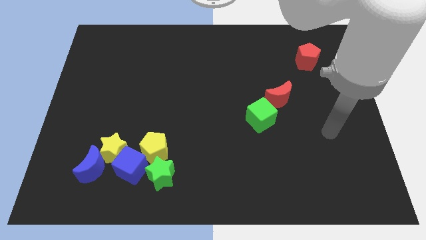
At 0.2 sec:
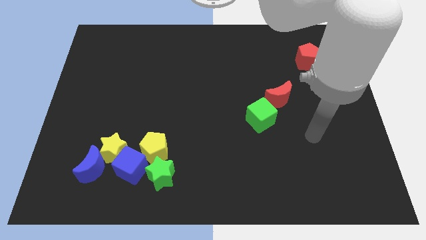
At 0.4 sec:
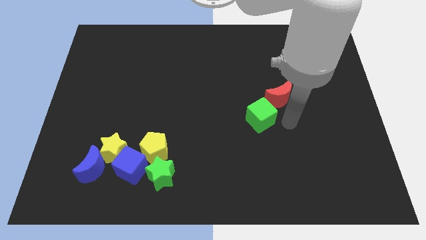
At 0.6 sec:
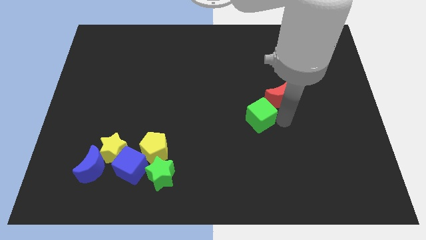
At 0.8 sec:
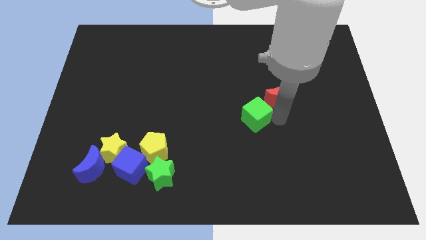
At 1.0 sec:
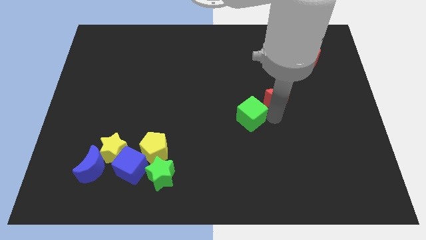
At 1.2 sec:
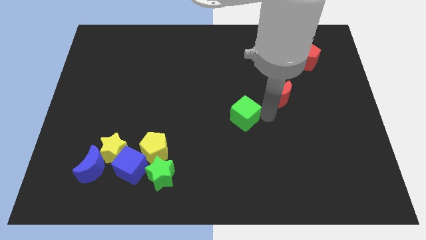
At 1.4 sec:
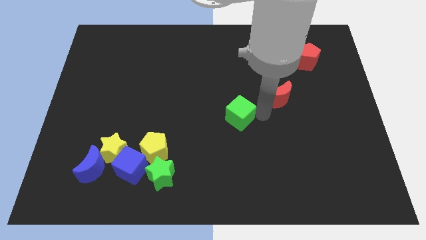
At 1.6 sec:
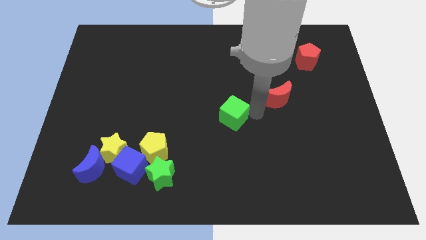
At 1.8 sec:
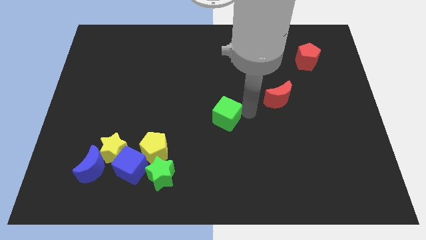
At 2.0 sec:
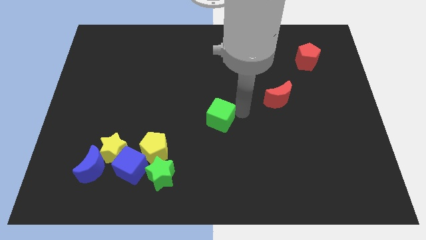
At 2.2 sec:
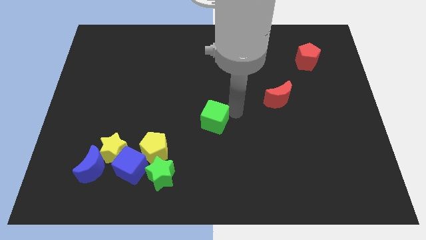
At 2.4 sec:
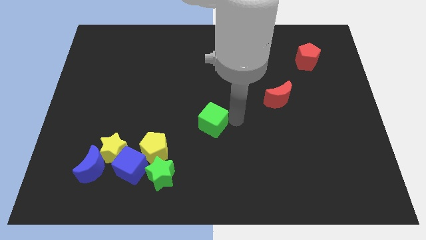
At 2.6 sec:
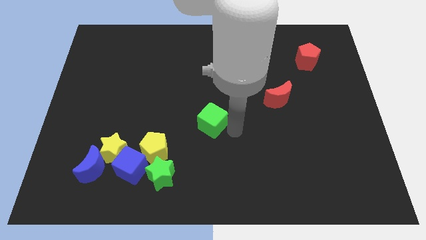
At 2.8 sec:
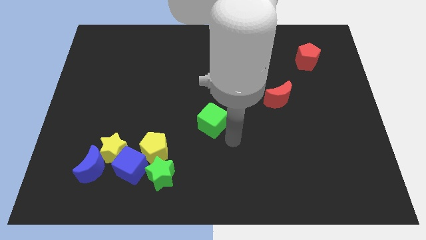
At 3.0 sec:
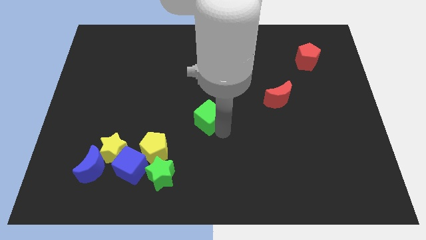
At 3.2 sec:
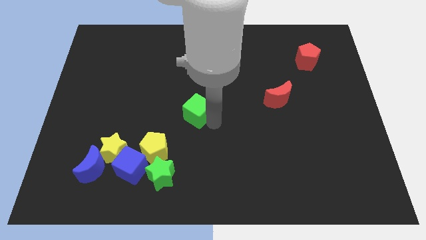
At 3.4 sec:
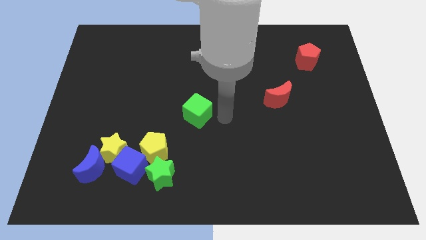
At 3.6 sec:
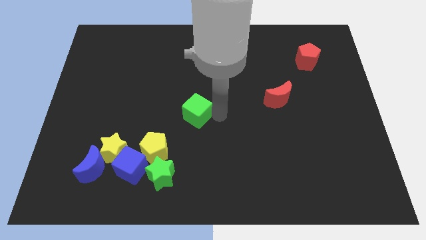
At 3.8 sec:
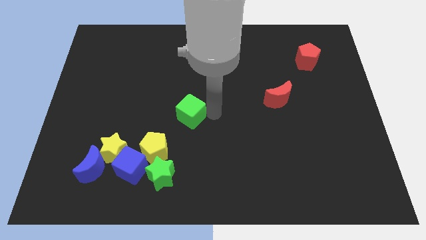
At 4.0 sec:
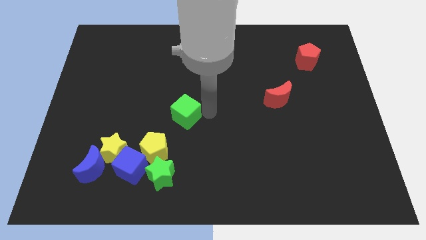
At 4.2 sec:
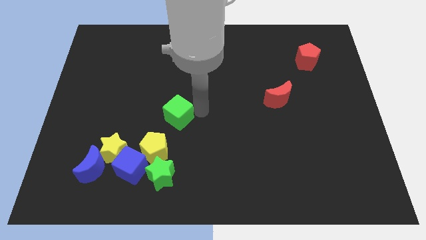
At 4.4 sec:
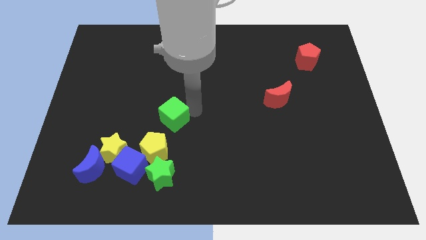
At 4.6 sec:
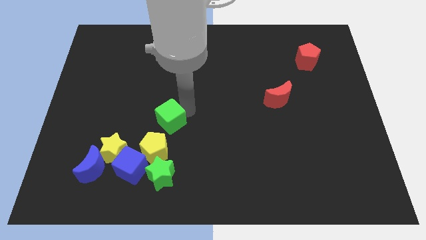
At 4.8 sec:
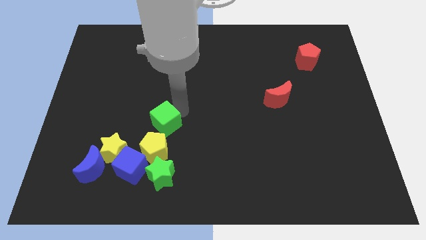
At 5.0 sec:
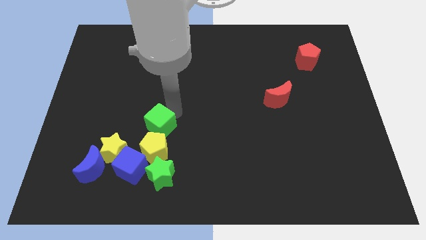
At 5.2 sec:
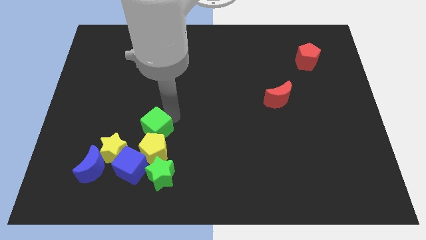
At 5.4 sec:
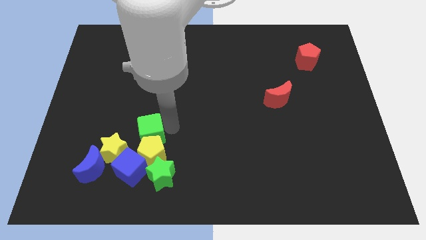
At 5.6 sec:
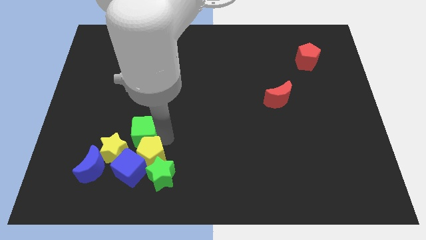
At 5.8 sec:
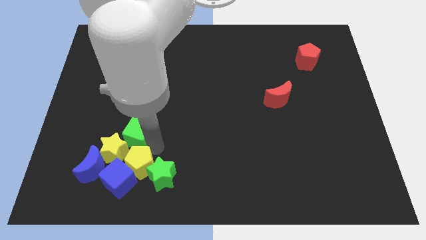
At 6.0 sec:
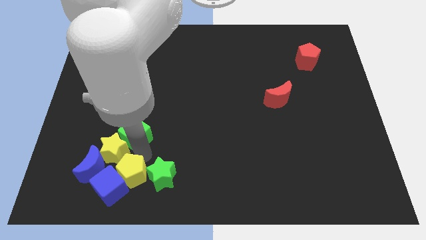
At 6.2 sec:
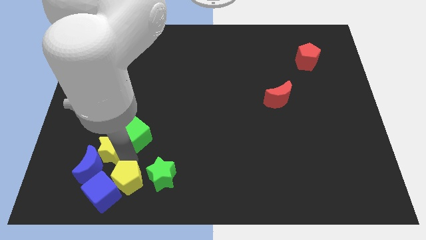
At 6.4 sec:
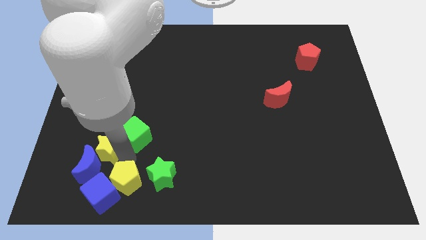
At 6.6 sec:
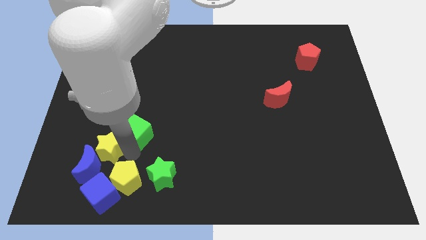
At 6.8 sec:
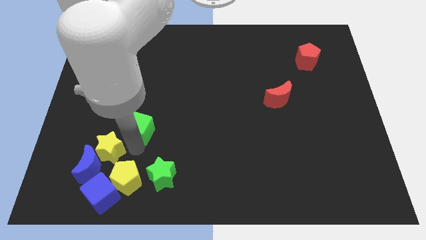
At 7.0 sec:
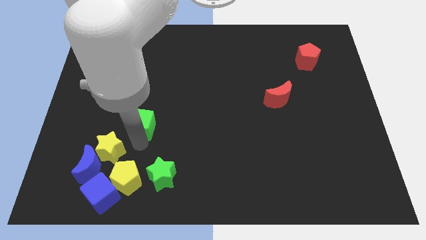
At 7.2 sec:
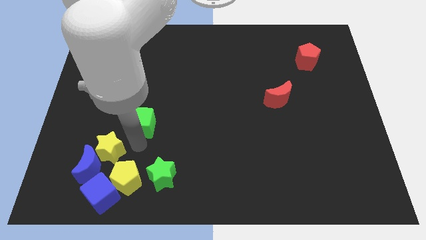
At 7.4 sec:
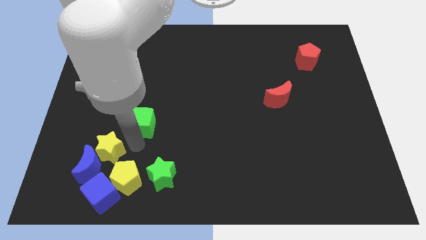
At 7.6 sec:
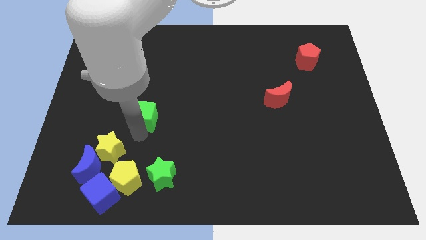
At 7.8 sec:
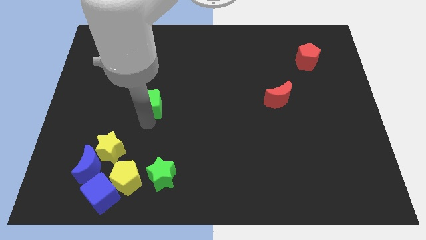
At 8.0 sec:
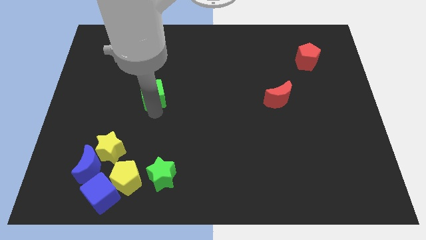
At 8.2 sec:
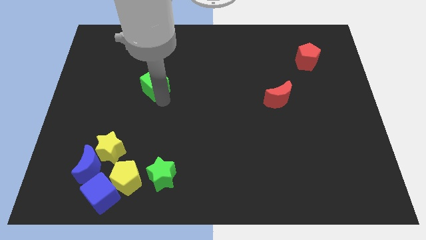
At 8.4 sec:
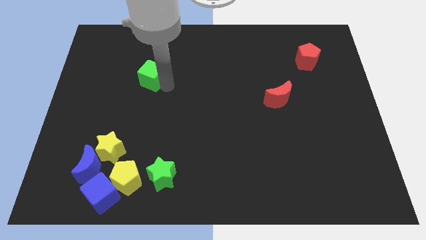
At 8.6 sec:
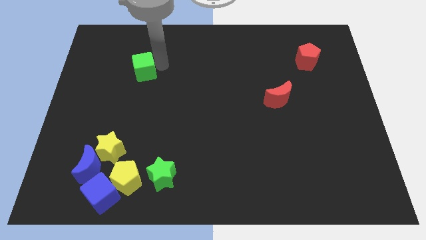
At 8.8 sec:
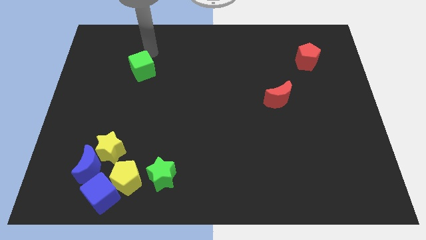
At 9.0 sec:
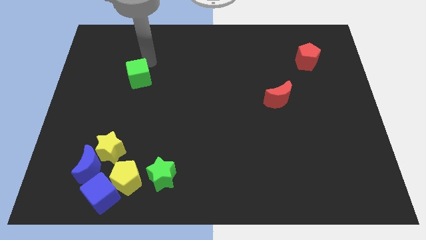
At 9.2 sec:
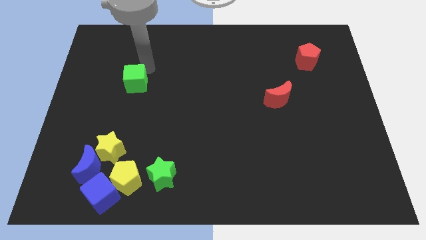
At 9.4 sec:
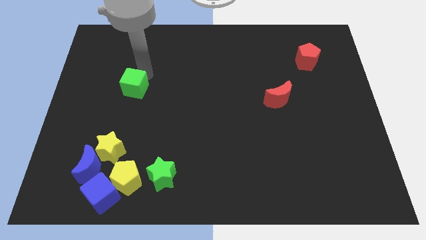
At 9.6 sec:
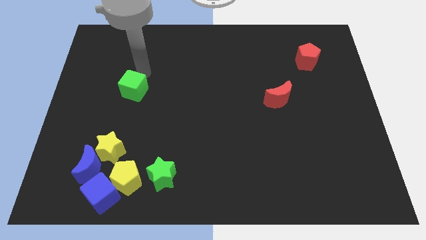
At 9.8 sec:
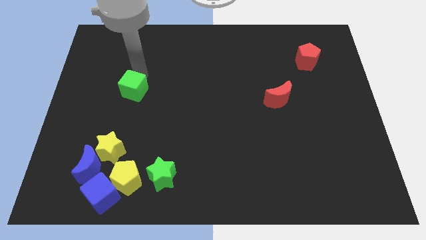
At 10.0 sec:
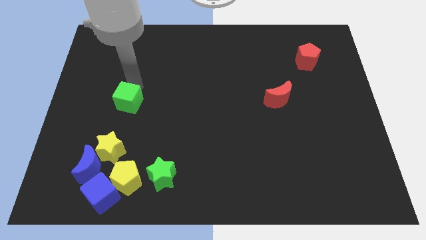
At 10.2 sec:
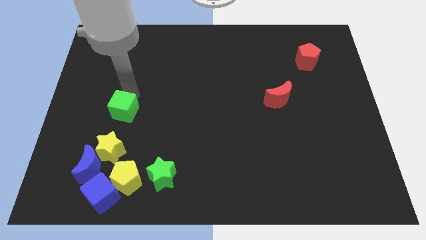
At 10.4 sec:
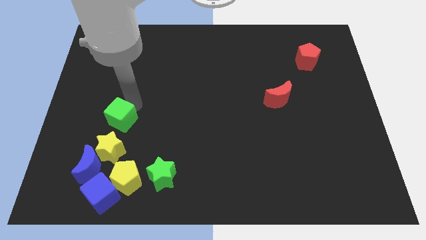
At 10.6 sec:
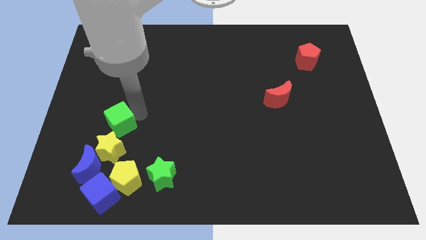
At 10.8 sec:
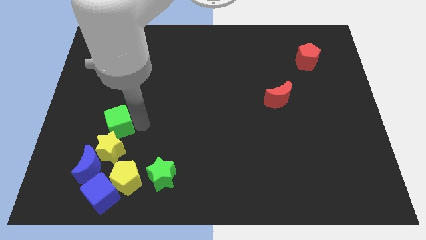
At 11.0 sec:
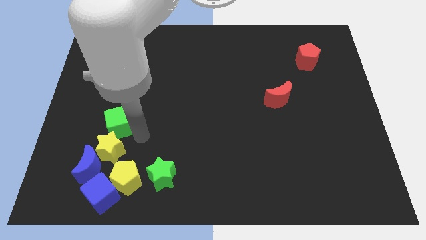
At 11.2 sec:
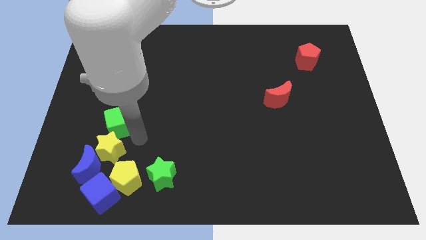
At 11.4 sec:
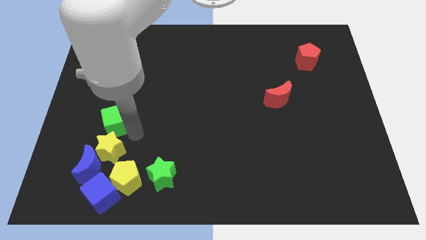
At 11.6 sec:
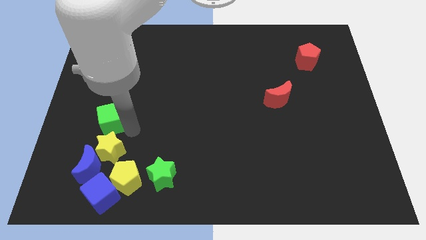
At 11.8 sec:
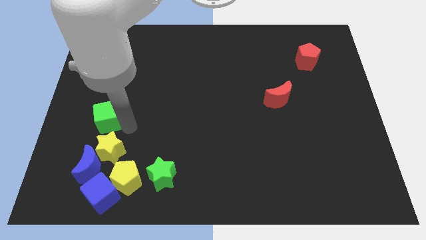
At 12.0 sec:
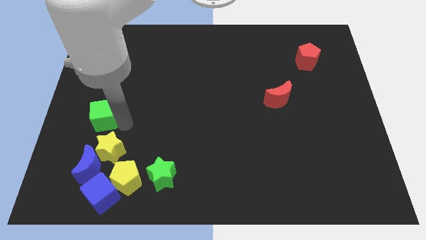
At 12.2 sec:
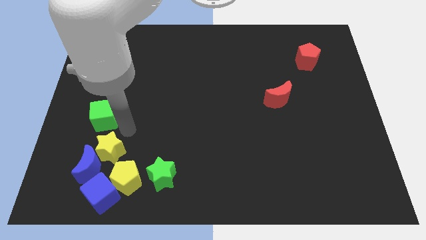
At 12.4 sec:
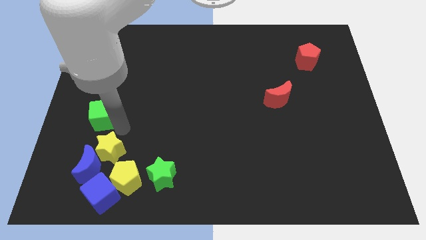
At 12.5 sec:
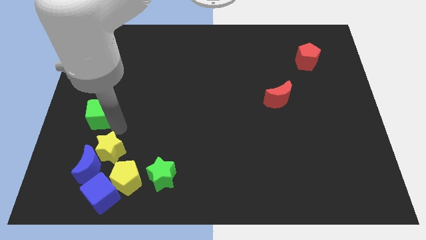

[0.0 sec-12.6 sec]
slide the green cube to the left side
